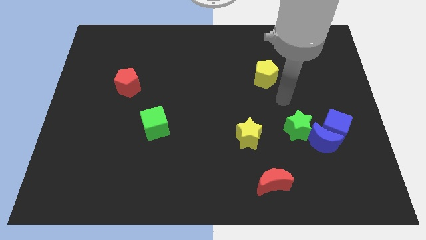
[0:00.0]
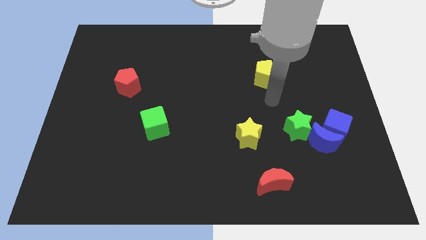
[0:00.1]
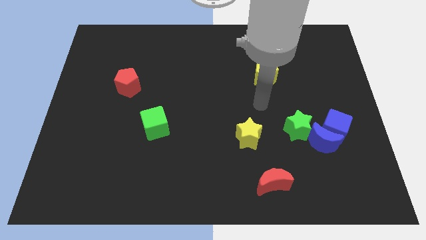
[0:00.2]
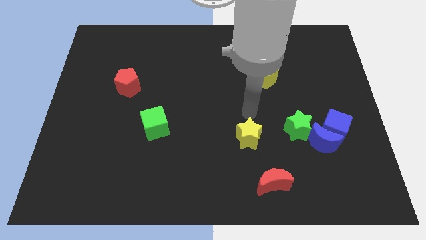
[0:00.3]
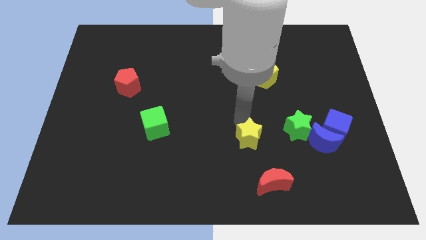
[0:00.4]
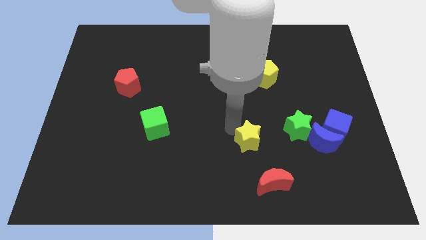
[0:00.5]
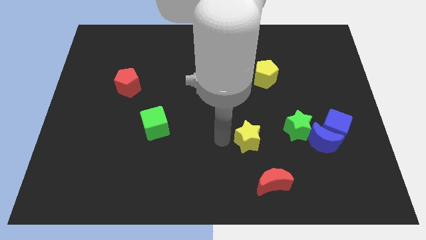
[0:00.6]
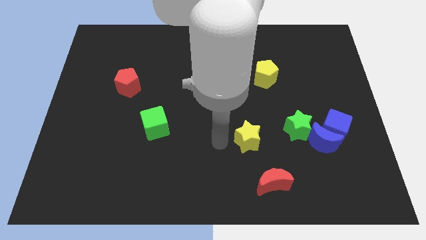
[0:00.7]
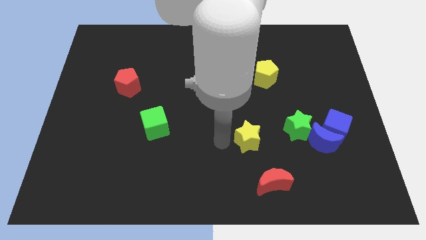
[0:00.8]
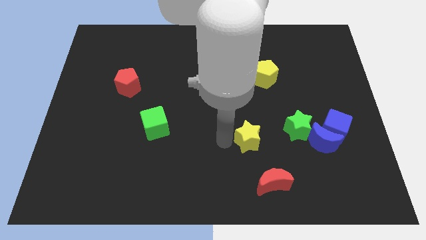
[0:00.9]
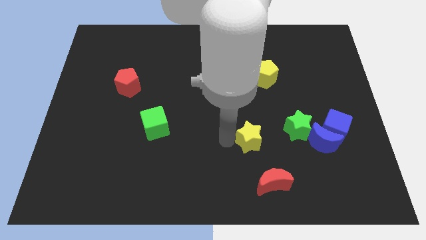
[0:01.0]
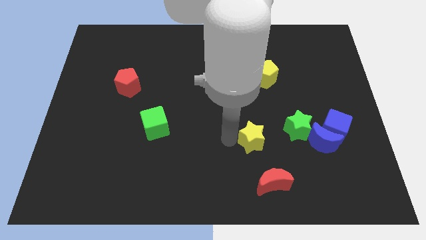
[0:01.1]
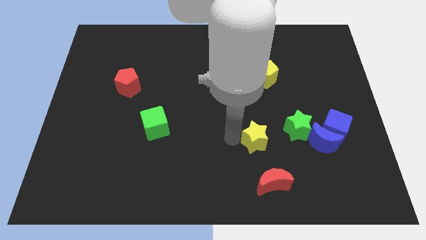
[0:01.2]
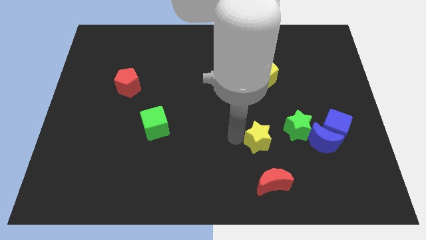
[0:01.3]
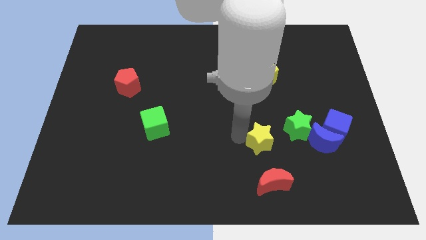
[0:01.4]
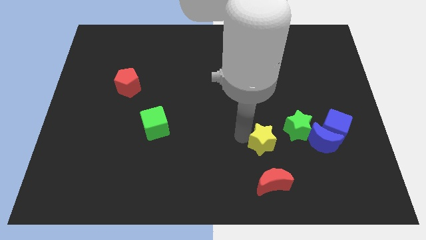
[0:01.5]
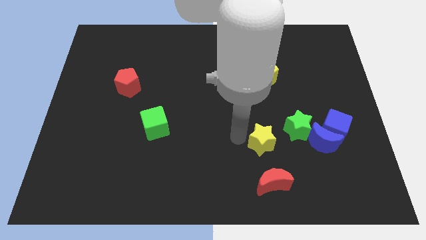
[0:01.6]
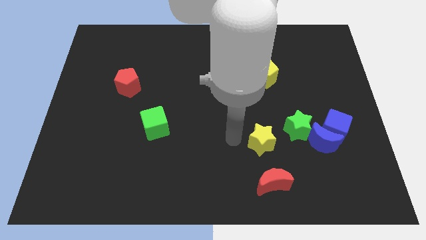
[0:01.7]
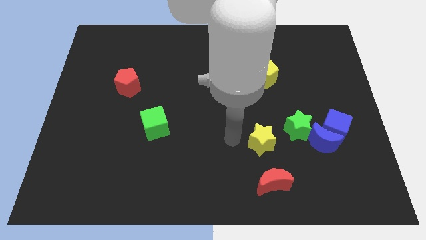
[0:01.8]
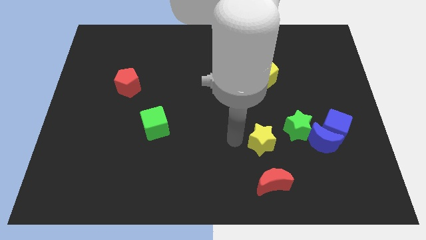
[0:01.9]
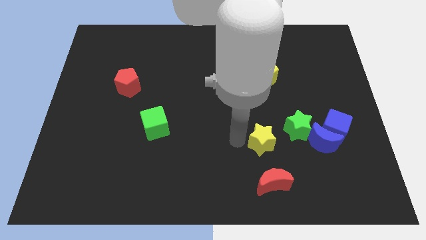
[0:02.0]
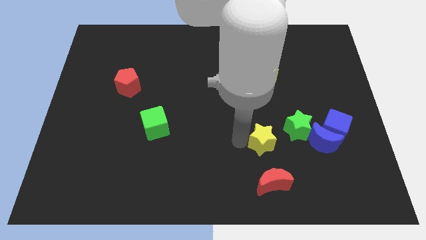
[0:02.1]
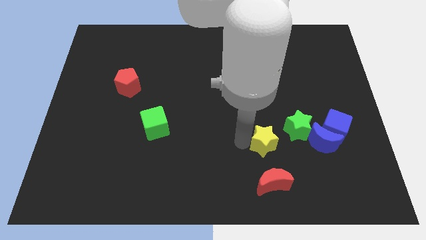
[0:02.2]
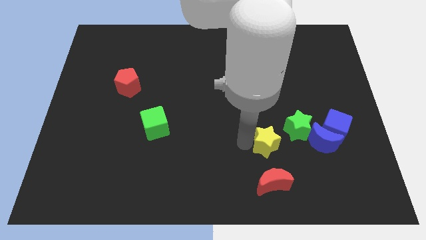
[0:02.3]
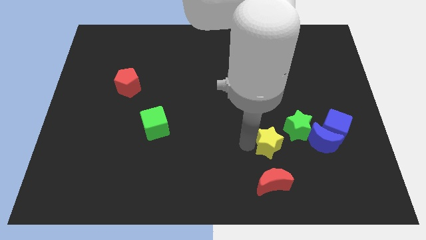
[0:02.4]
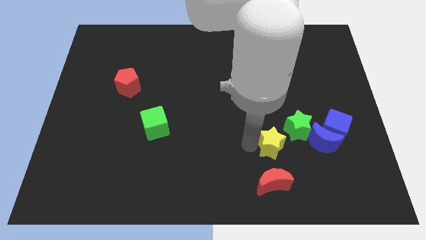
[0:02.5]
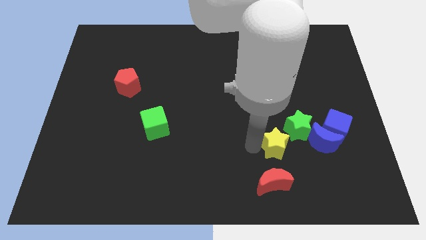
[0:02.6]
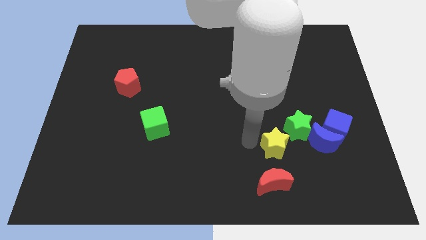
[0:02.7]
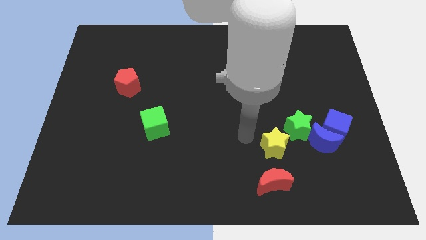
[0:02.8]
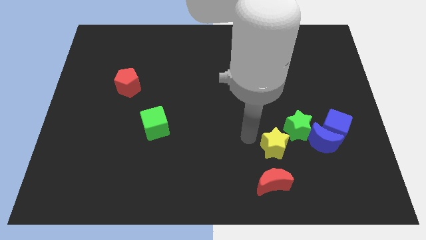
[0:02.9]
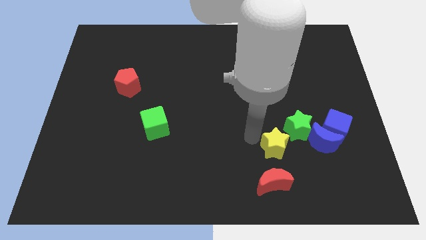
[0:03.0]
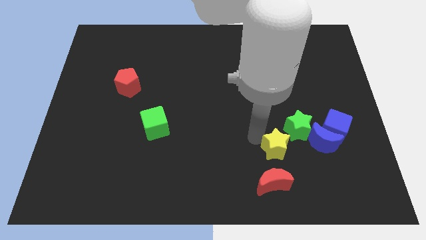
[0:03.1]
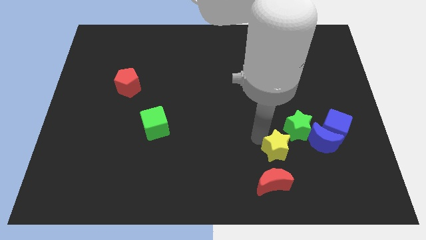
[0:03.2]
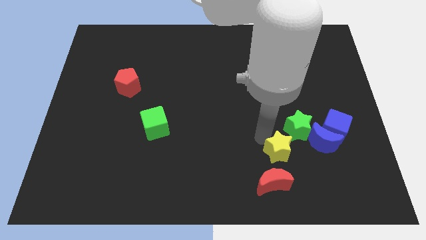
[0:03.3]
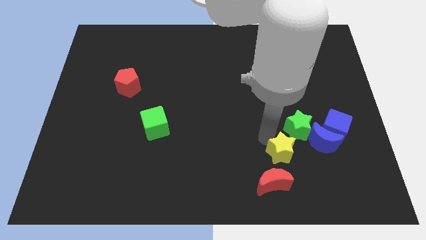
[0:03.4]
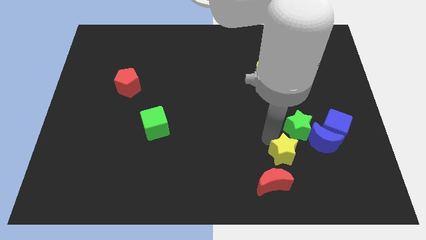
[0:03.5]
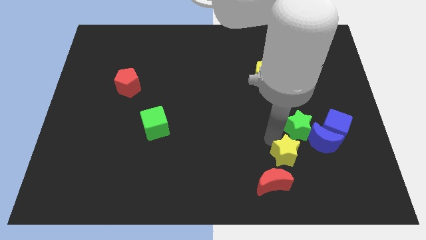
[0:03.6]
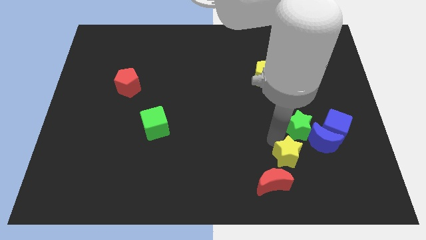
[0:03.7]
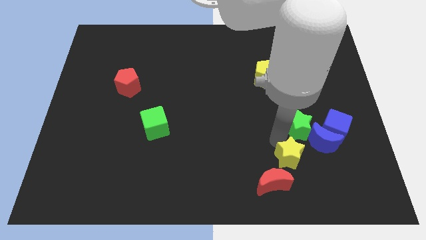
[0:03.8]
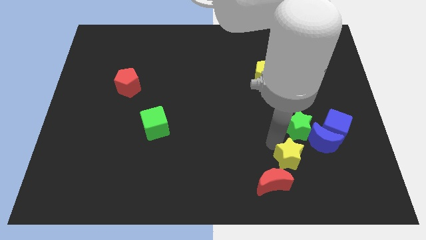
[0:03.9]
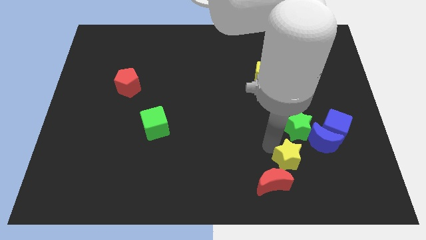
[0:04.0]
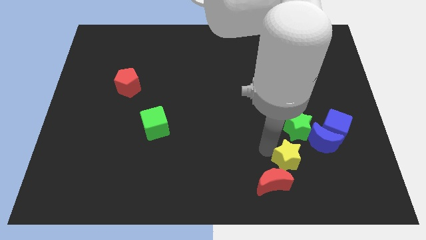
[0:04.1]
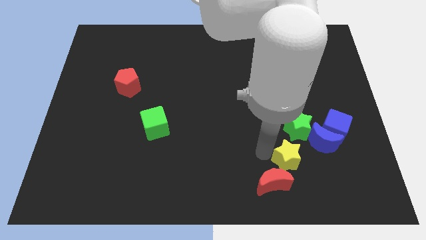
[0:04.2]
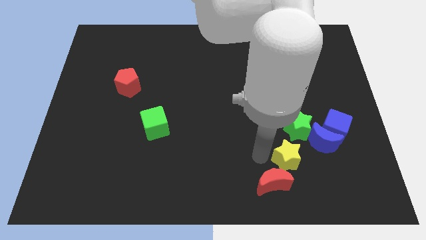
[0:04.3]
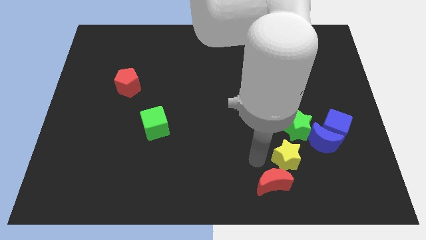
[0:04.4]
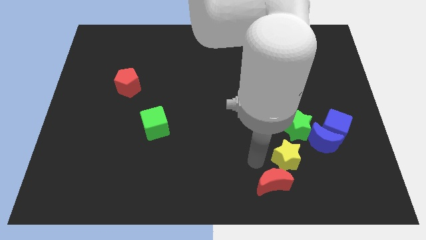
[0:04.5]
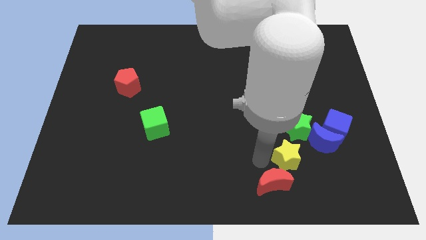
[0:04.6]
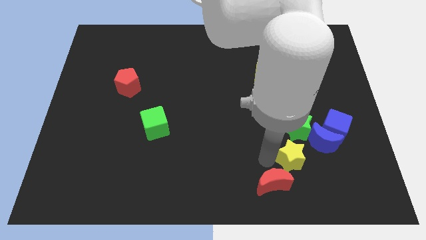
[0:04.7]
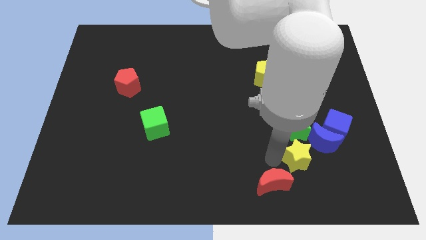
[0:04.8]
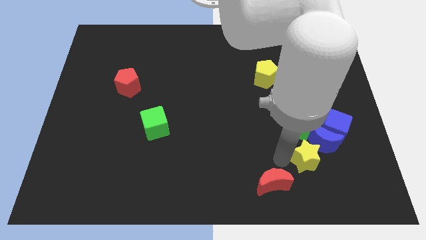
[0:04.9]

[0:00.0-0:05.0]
slide the yellow star to the blue moon

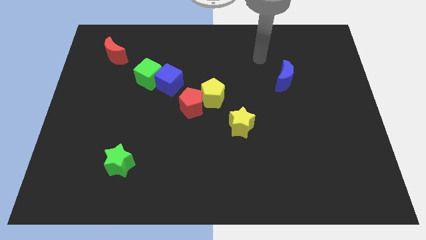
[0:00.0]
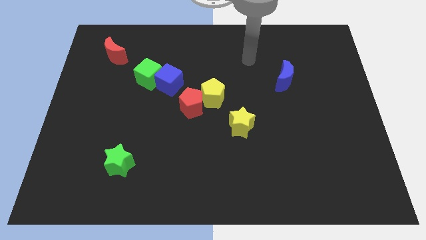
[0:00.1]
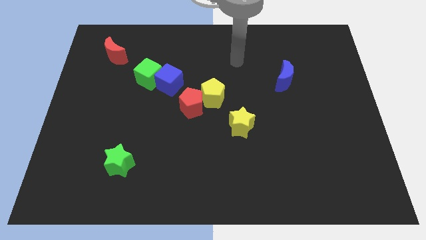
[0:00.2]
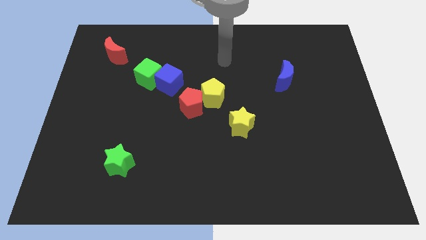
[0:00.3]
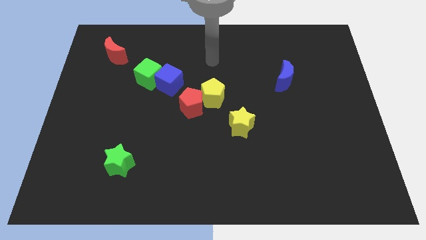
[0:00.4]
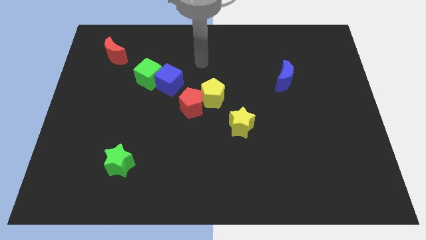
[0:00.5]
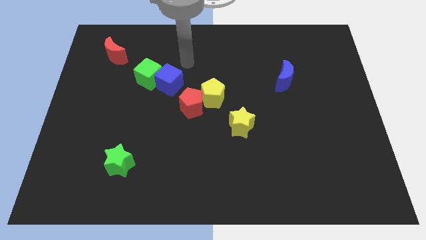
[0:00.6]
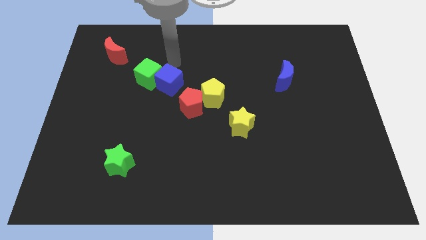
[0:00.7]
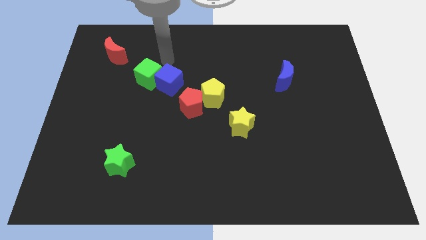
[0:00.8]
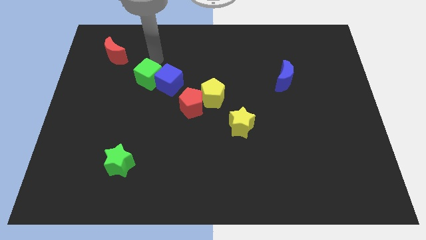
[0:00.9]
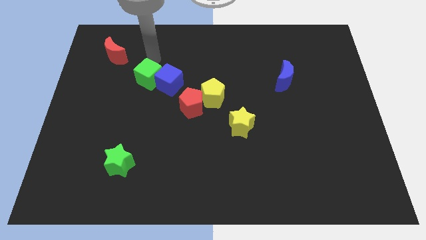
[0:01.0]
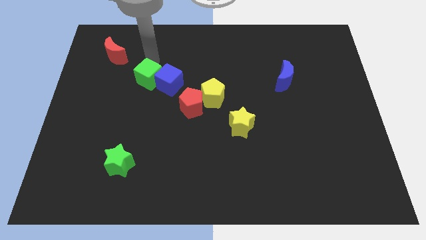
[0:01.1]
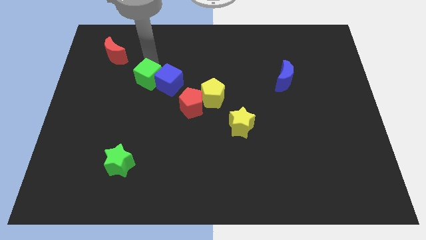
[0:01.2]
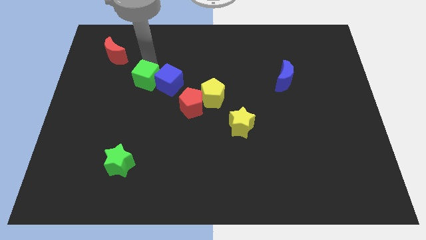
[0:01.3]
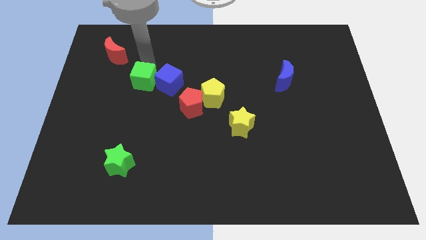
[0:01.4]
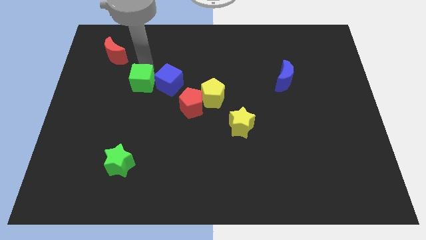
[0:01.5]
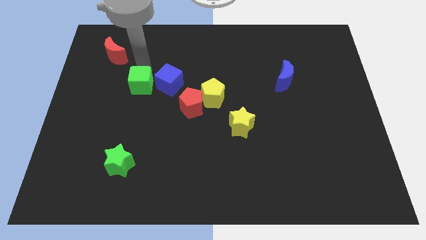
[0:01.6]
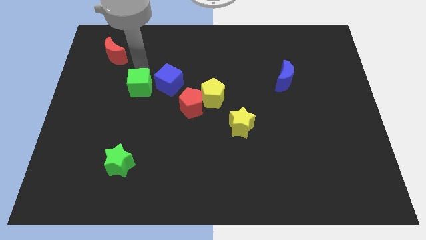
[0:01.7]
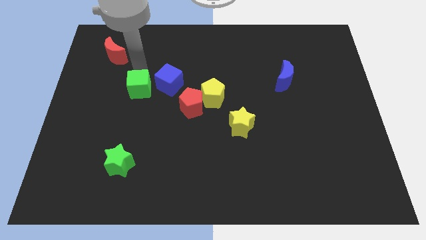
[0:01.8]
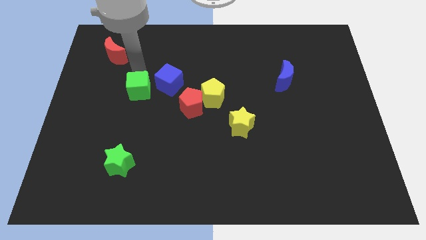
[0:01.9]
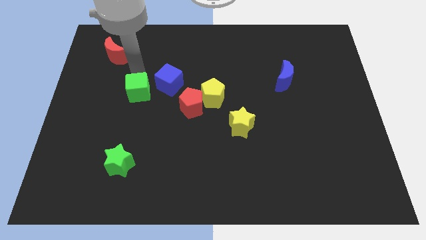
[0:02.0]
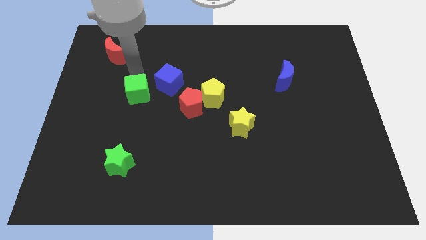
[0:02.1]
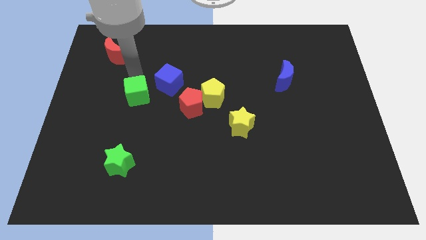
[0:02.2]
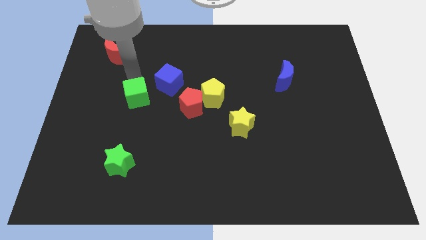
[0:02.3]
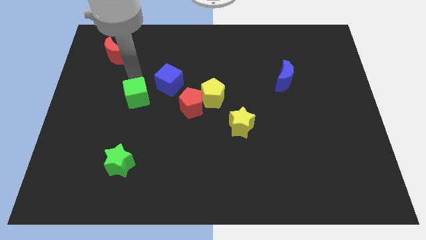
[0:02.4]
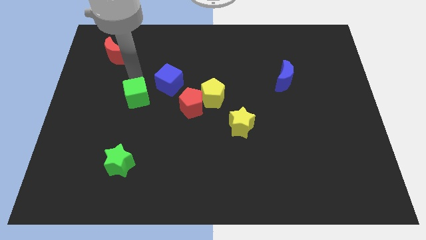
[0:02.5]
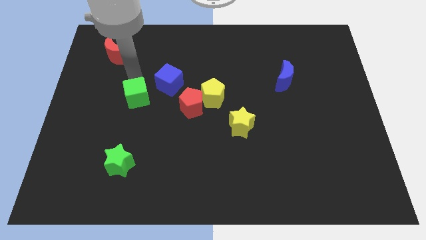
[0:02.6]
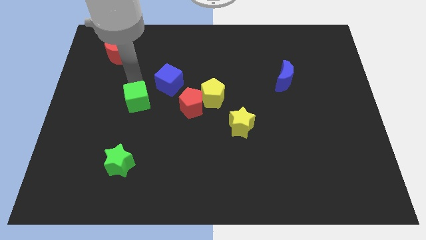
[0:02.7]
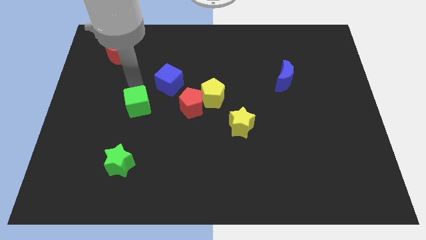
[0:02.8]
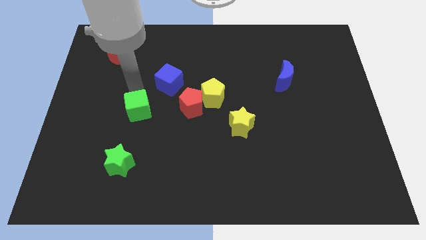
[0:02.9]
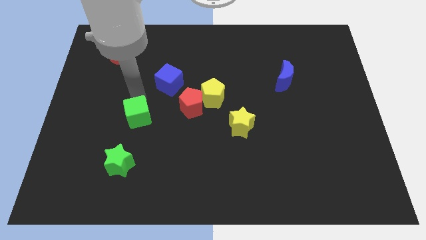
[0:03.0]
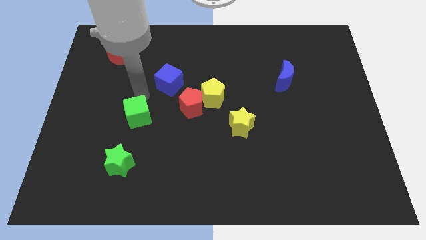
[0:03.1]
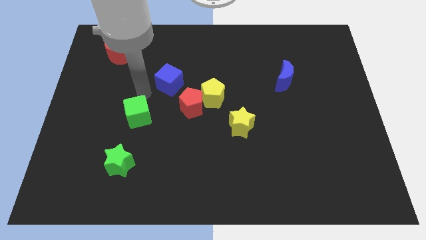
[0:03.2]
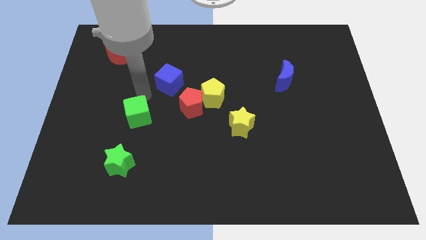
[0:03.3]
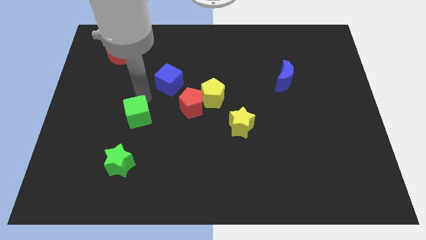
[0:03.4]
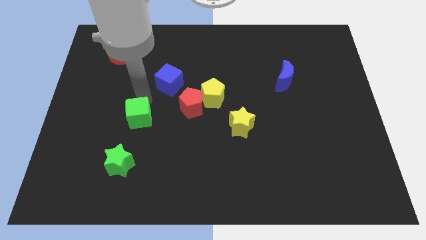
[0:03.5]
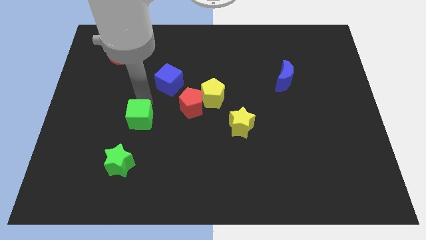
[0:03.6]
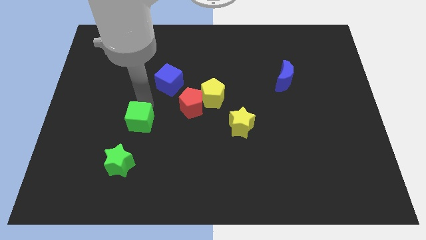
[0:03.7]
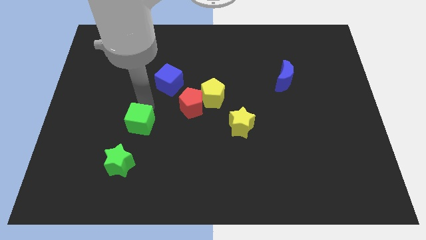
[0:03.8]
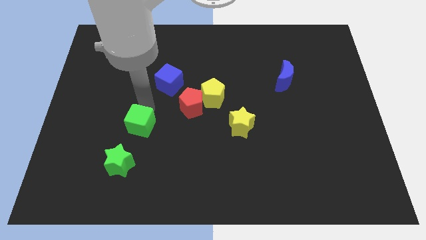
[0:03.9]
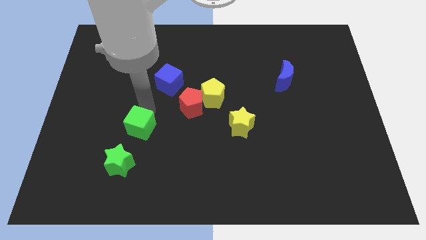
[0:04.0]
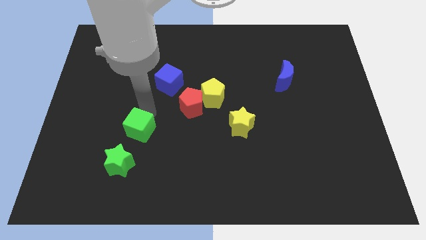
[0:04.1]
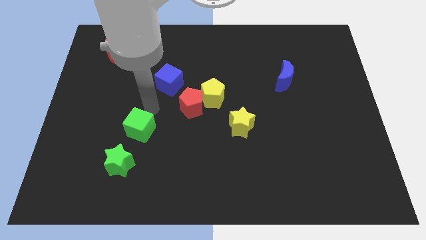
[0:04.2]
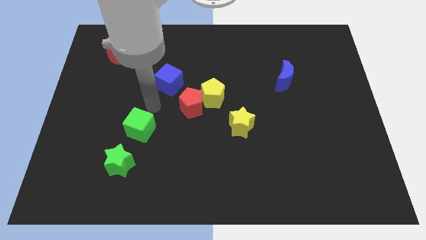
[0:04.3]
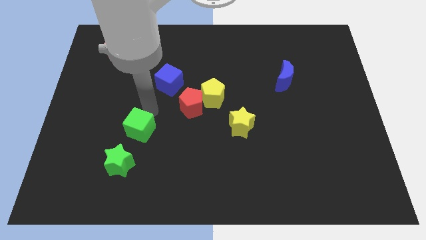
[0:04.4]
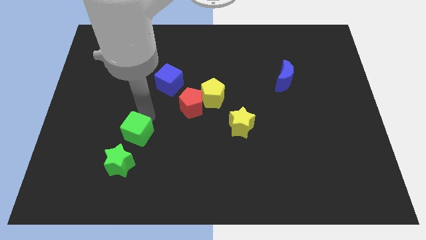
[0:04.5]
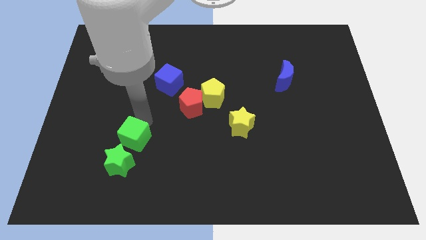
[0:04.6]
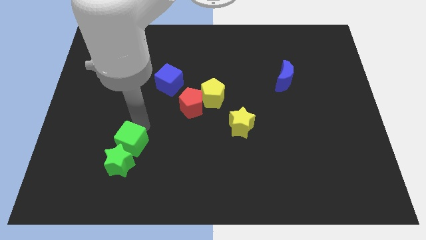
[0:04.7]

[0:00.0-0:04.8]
slide the green cube next to the green star
